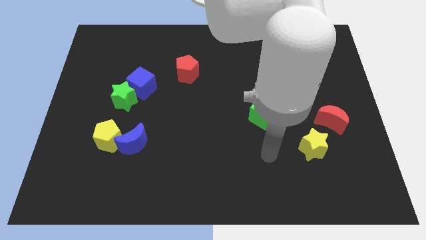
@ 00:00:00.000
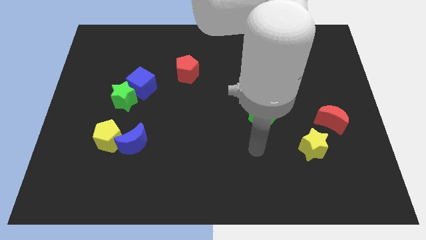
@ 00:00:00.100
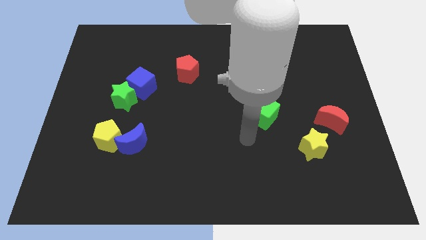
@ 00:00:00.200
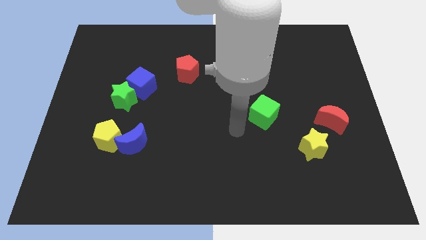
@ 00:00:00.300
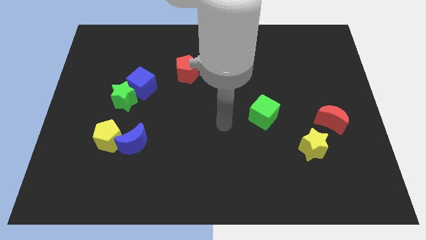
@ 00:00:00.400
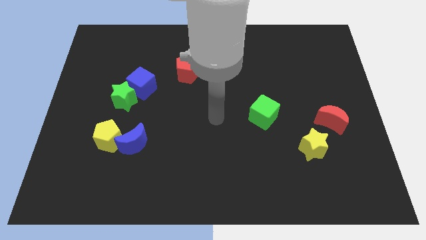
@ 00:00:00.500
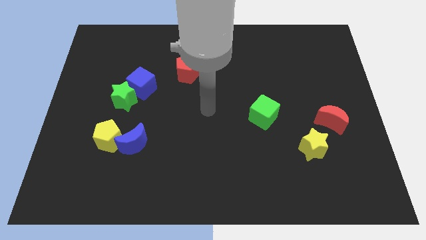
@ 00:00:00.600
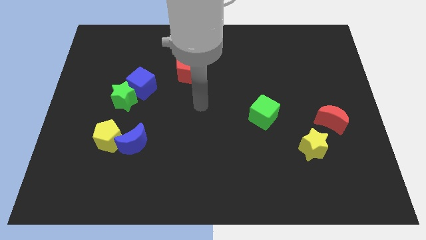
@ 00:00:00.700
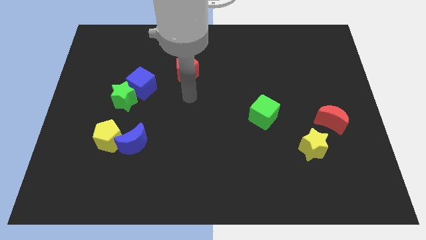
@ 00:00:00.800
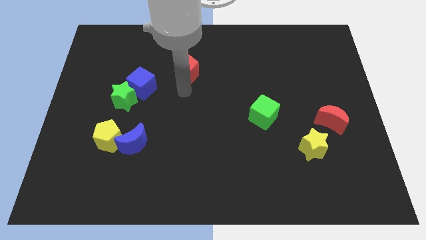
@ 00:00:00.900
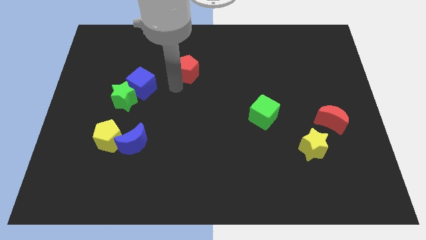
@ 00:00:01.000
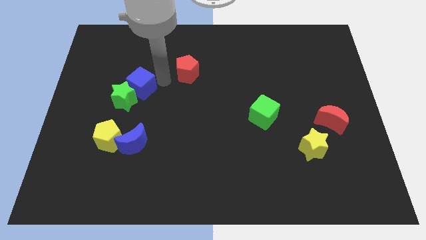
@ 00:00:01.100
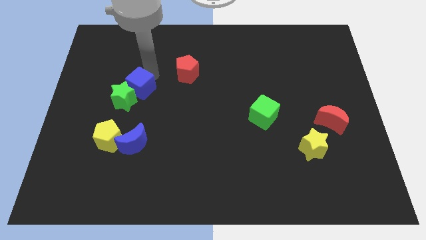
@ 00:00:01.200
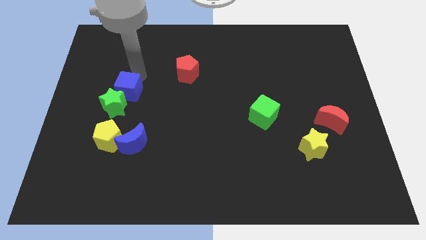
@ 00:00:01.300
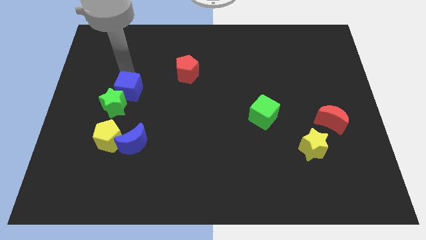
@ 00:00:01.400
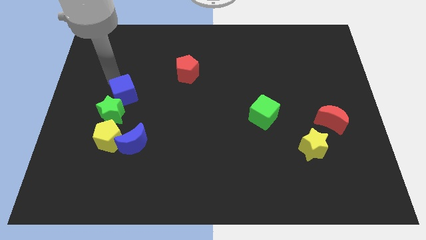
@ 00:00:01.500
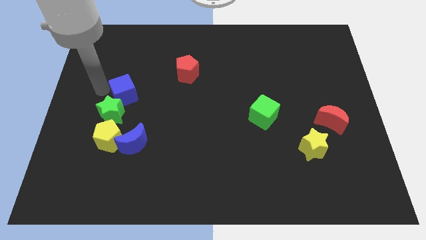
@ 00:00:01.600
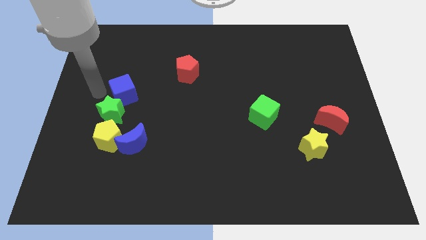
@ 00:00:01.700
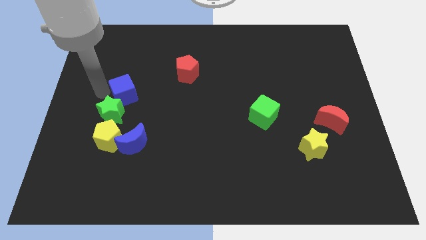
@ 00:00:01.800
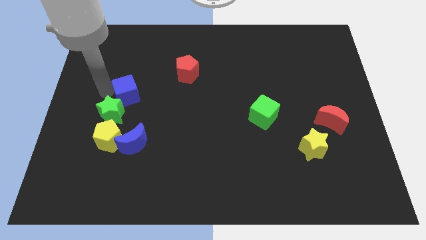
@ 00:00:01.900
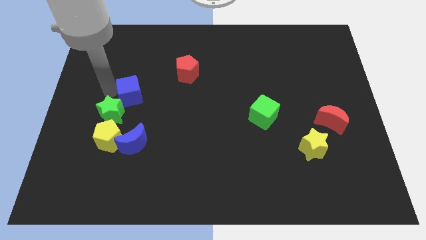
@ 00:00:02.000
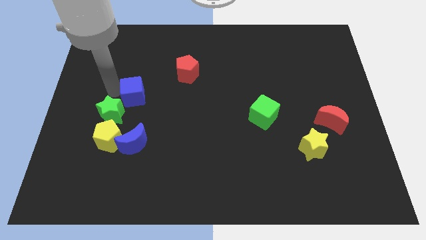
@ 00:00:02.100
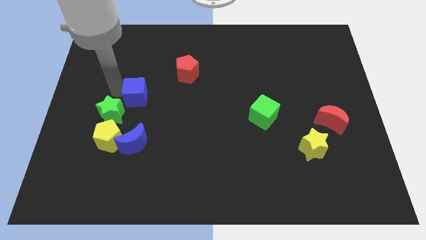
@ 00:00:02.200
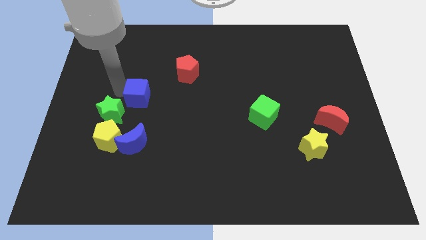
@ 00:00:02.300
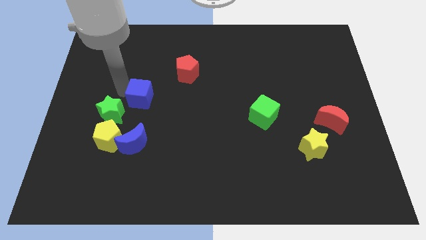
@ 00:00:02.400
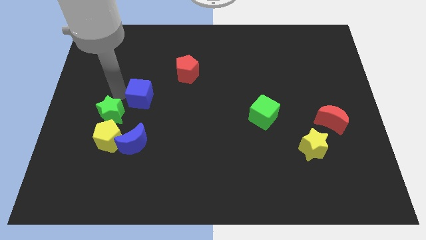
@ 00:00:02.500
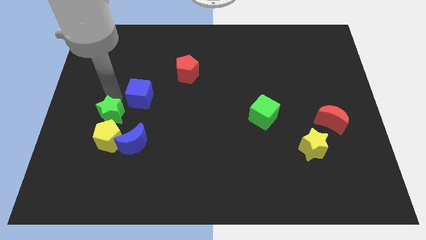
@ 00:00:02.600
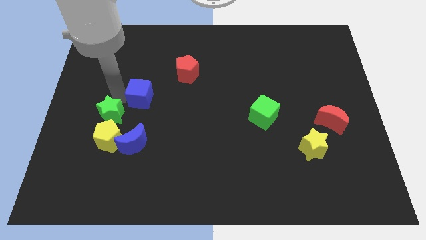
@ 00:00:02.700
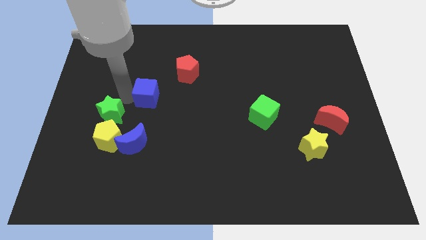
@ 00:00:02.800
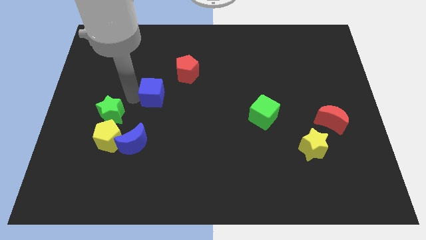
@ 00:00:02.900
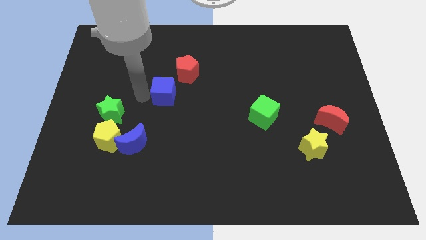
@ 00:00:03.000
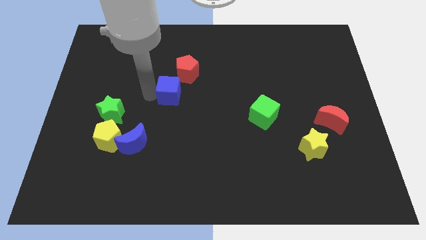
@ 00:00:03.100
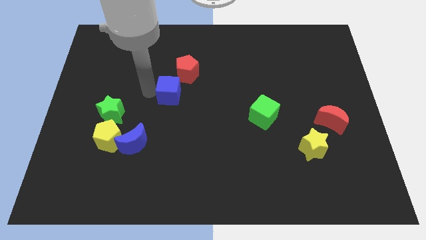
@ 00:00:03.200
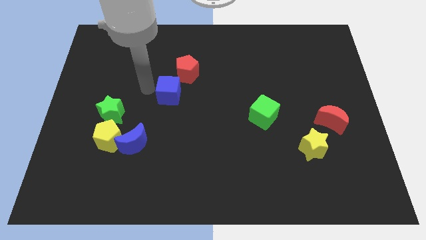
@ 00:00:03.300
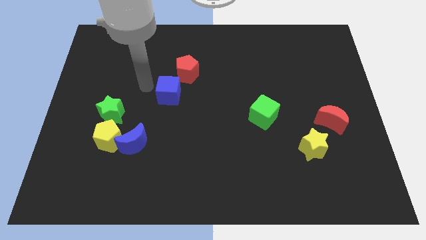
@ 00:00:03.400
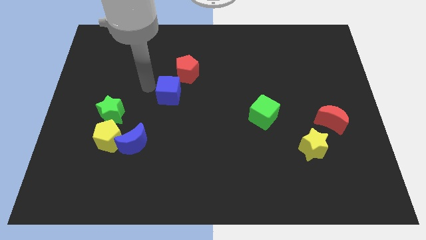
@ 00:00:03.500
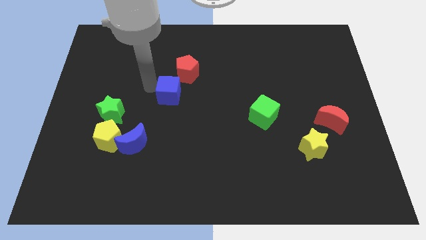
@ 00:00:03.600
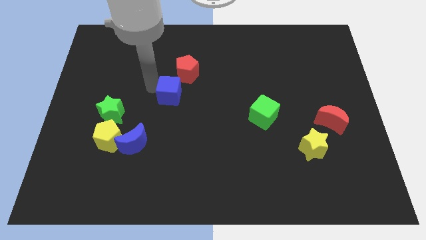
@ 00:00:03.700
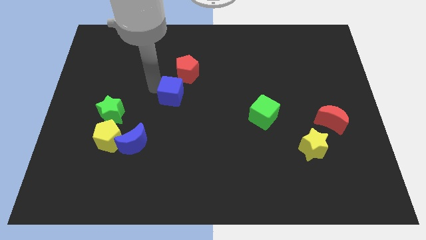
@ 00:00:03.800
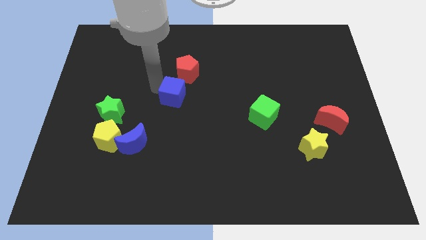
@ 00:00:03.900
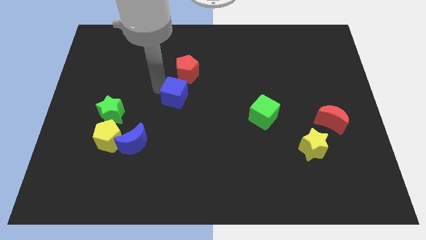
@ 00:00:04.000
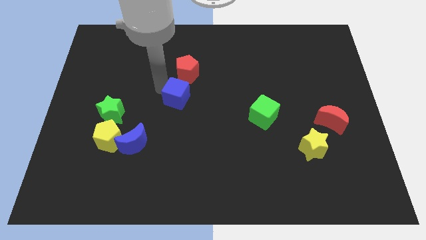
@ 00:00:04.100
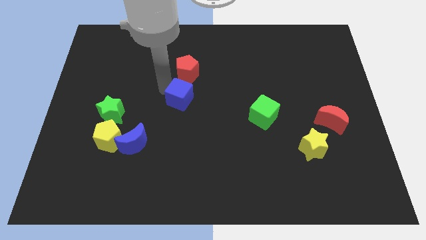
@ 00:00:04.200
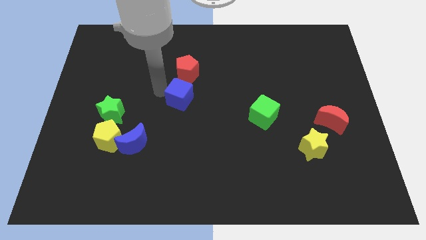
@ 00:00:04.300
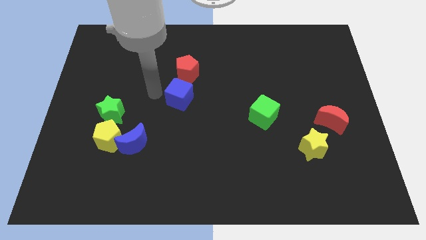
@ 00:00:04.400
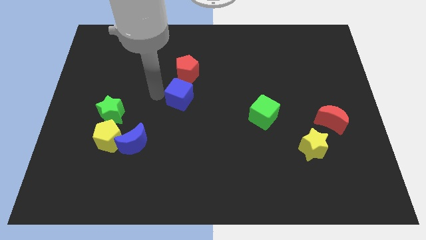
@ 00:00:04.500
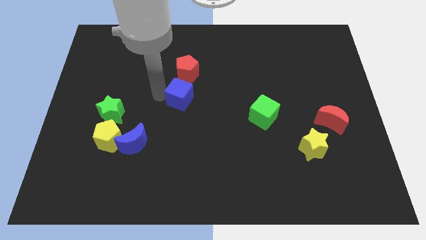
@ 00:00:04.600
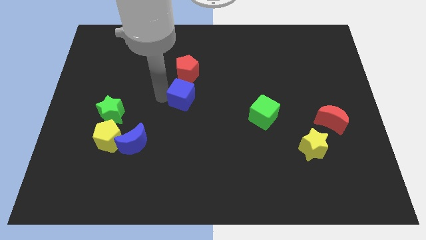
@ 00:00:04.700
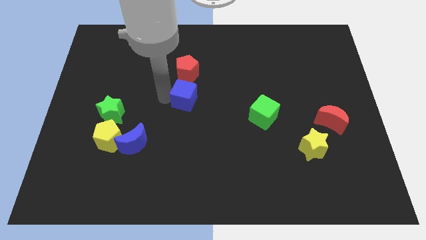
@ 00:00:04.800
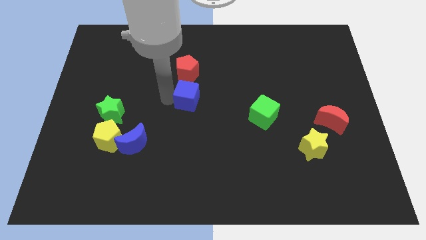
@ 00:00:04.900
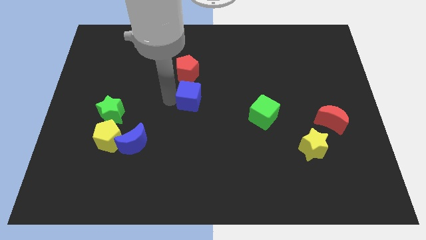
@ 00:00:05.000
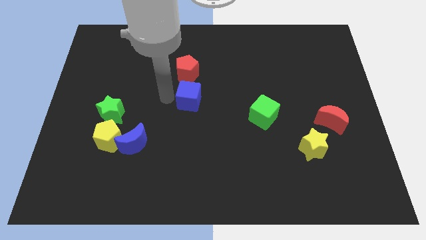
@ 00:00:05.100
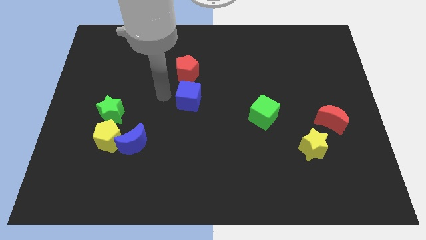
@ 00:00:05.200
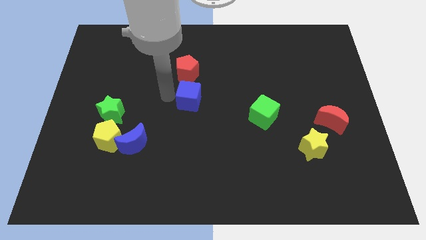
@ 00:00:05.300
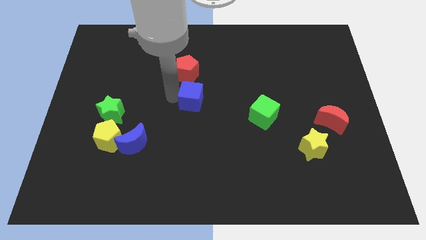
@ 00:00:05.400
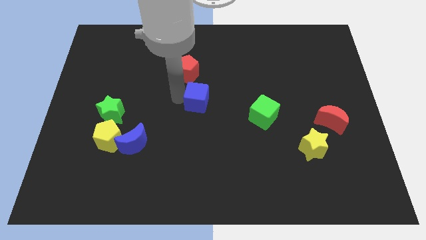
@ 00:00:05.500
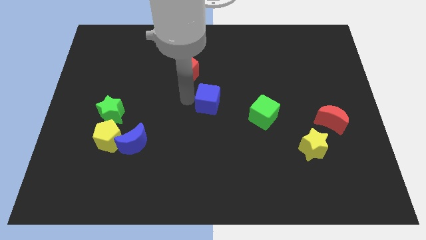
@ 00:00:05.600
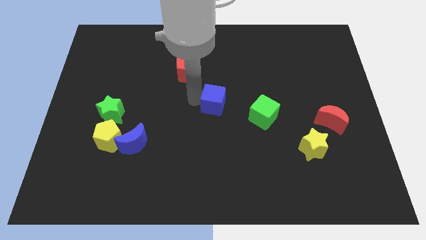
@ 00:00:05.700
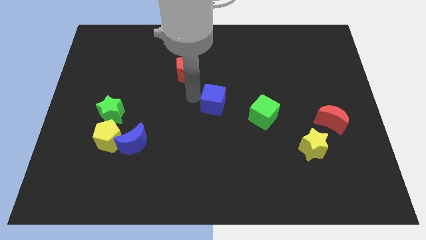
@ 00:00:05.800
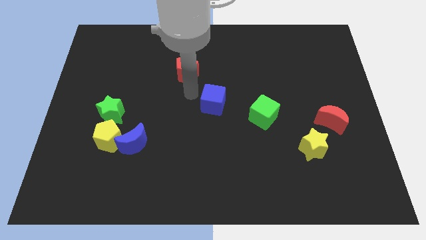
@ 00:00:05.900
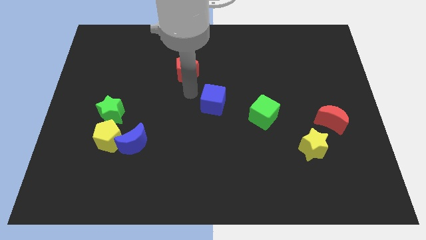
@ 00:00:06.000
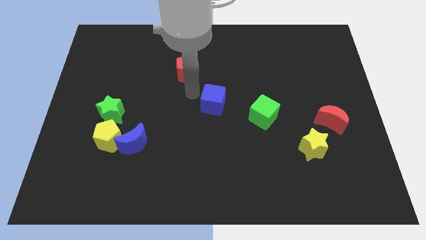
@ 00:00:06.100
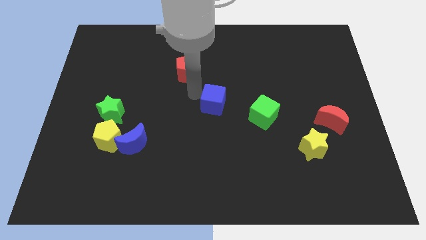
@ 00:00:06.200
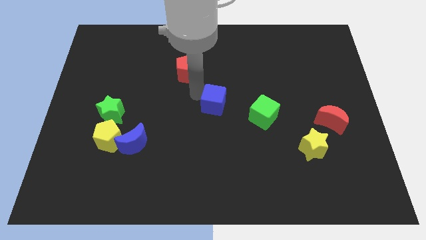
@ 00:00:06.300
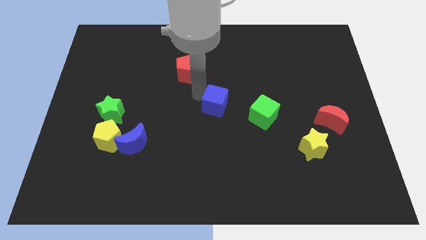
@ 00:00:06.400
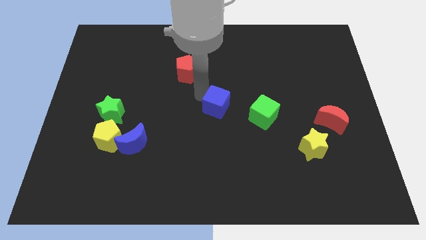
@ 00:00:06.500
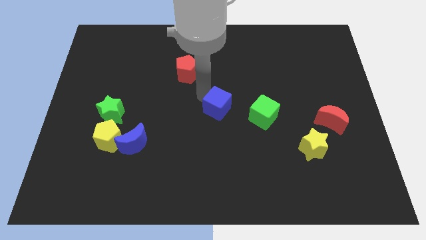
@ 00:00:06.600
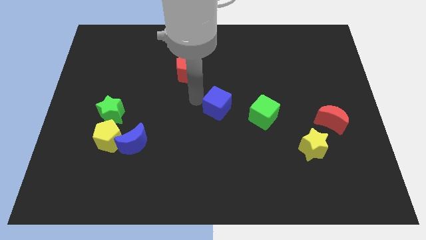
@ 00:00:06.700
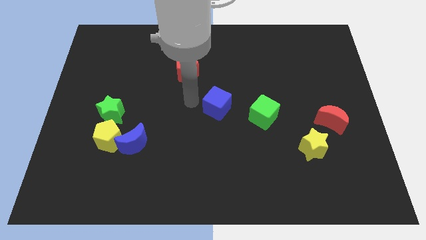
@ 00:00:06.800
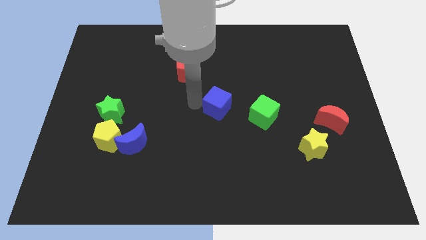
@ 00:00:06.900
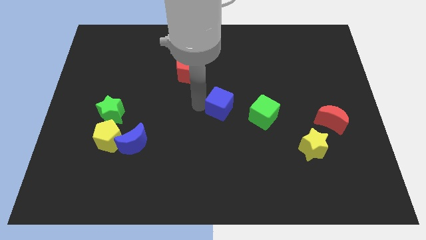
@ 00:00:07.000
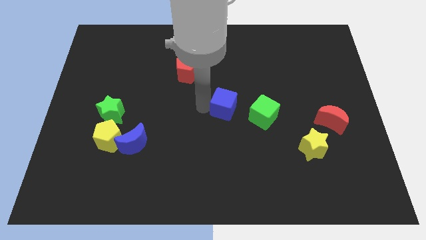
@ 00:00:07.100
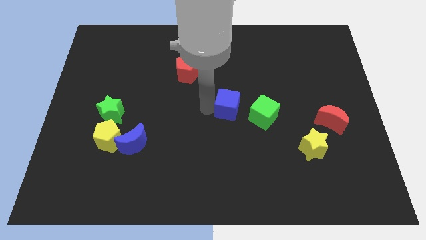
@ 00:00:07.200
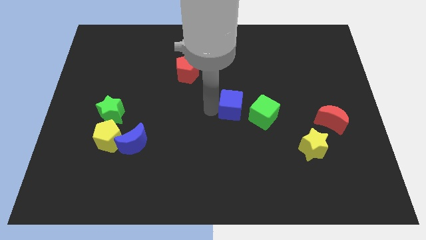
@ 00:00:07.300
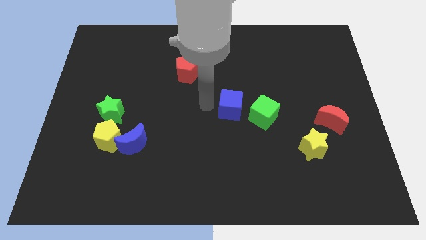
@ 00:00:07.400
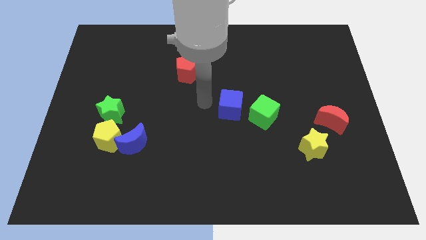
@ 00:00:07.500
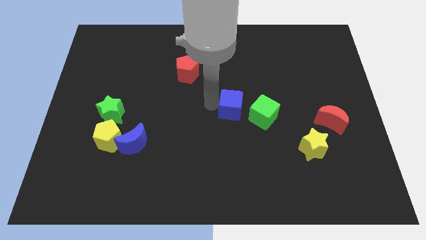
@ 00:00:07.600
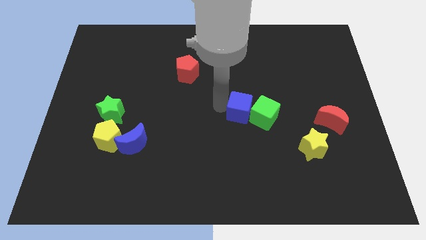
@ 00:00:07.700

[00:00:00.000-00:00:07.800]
put the blue cube towards the green cube
